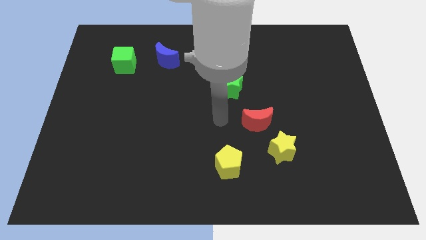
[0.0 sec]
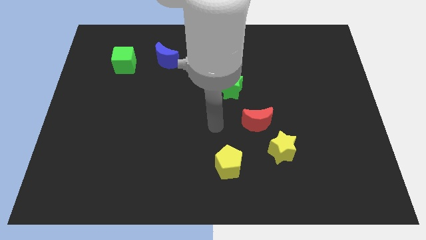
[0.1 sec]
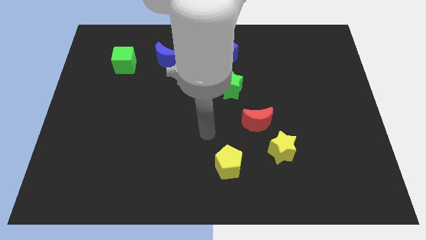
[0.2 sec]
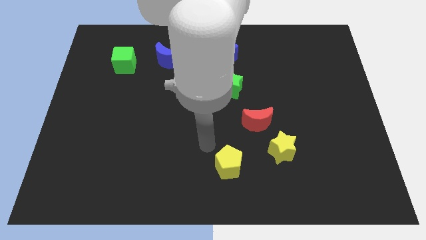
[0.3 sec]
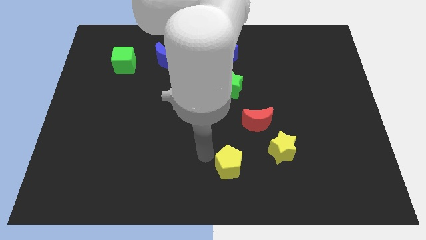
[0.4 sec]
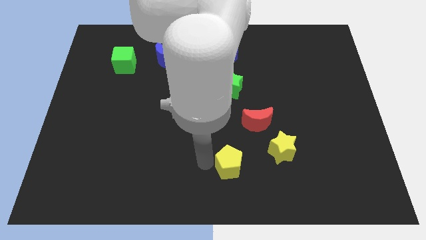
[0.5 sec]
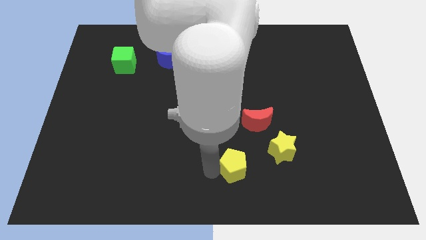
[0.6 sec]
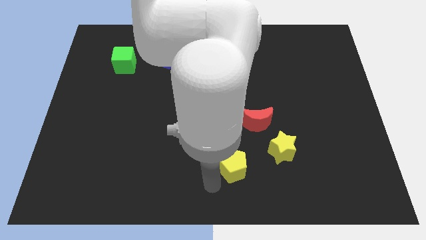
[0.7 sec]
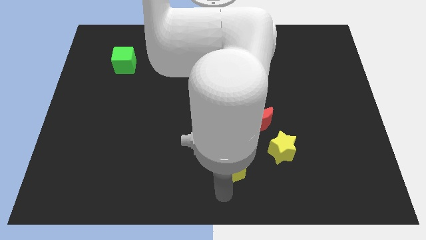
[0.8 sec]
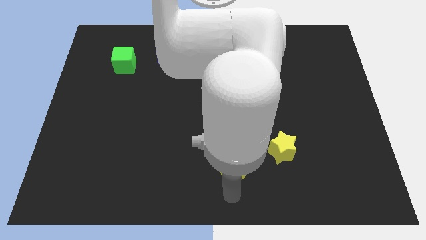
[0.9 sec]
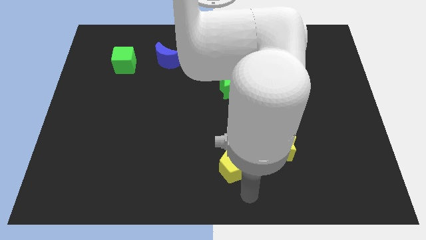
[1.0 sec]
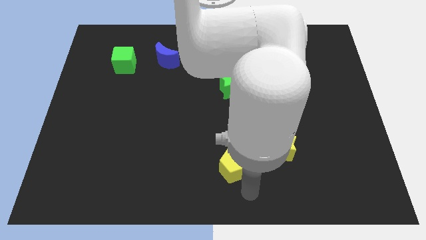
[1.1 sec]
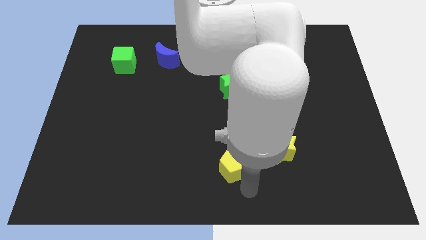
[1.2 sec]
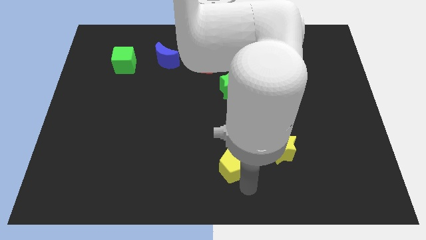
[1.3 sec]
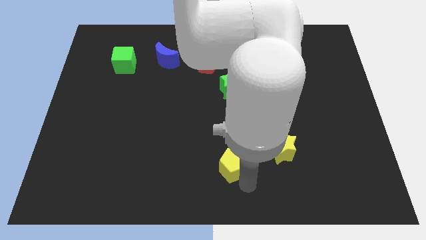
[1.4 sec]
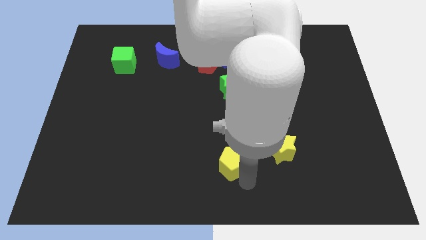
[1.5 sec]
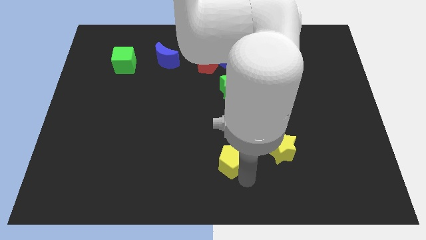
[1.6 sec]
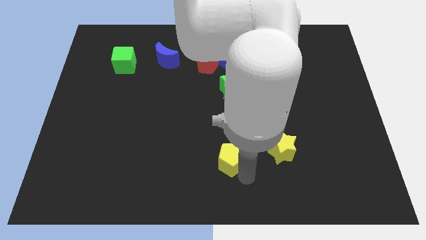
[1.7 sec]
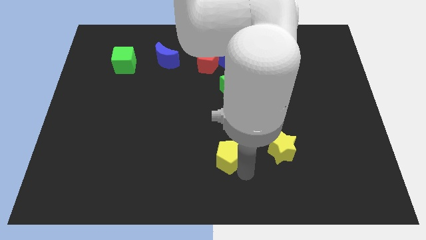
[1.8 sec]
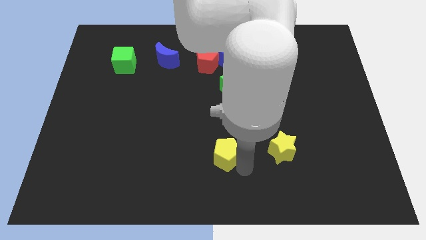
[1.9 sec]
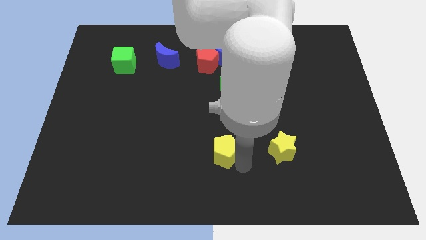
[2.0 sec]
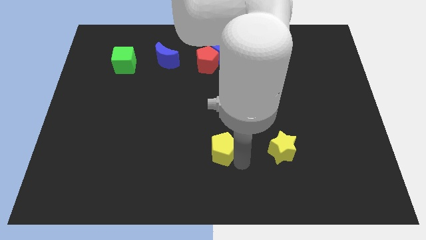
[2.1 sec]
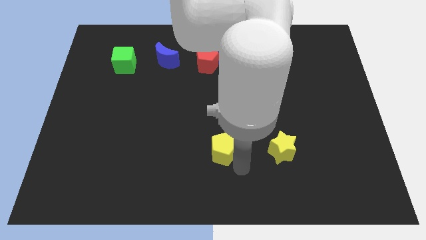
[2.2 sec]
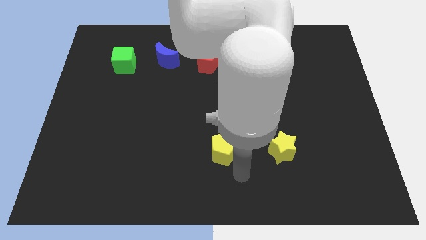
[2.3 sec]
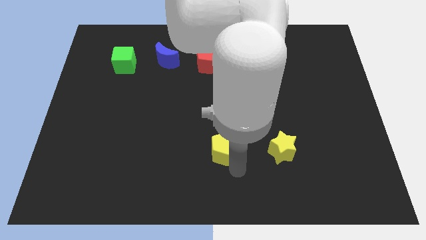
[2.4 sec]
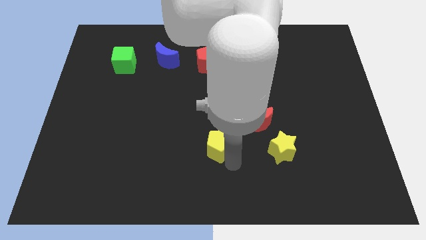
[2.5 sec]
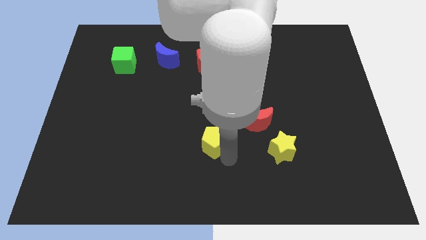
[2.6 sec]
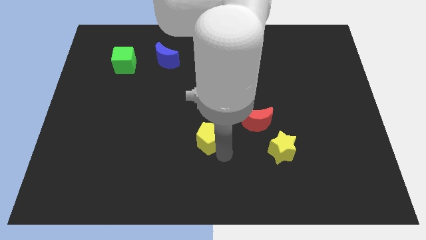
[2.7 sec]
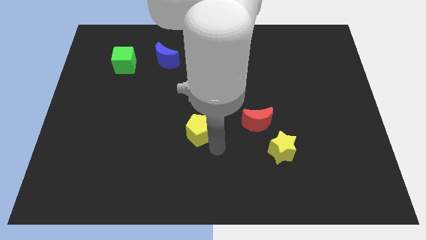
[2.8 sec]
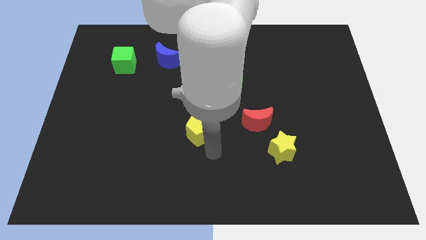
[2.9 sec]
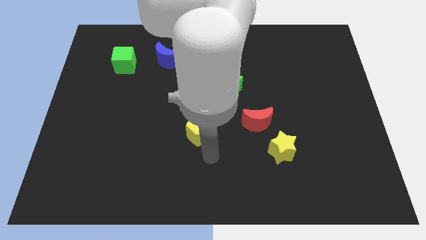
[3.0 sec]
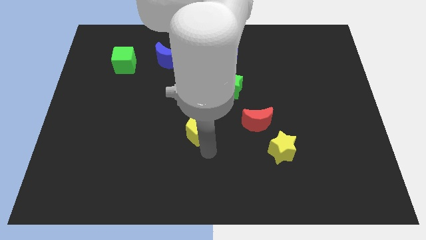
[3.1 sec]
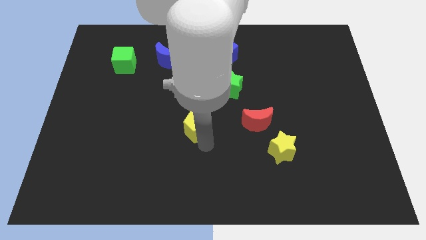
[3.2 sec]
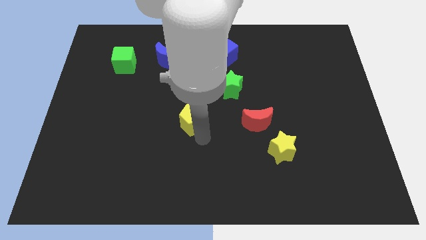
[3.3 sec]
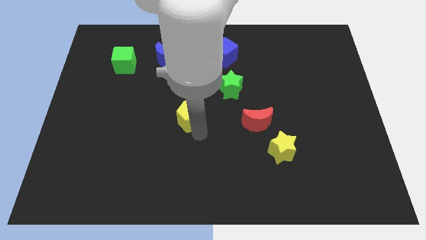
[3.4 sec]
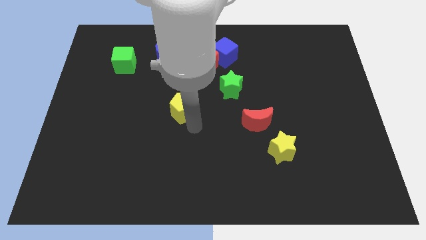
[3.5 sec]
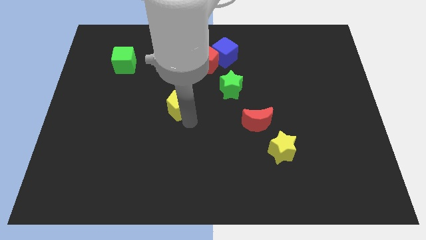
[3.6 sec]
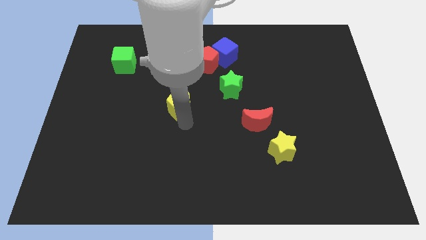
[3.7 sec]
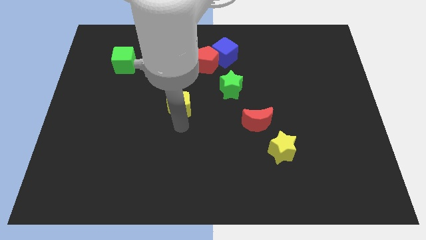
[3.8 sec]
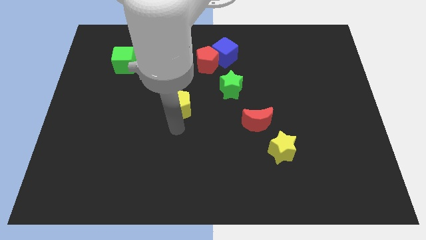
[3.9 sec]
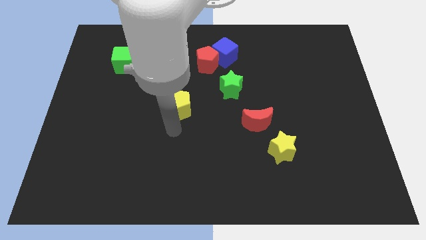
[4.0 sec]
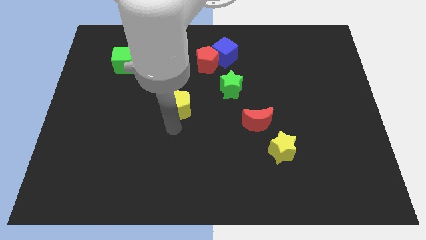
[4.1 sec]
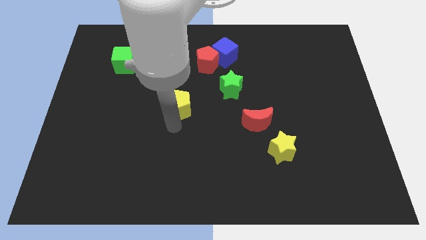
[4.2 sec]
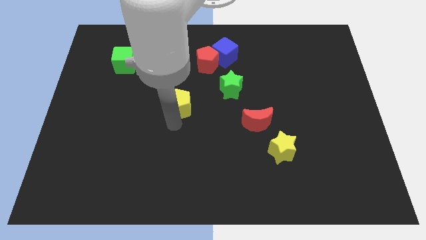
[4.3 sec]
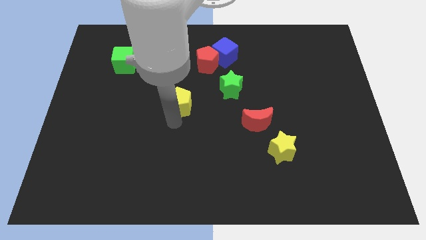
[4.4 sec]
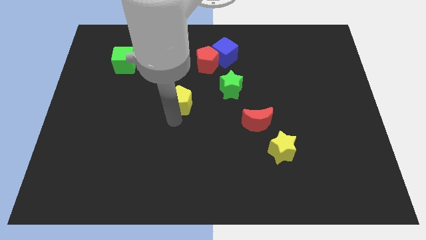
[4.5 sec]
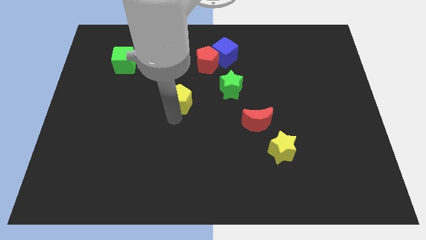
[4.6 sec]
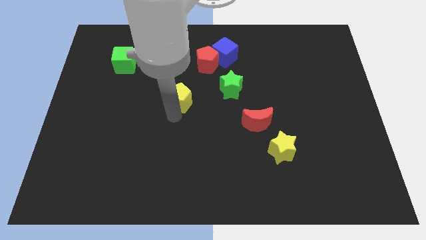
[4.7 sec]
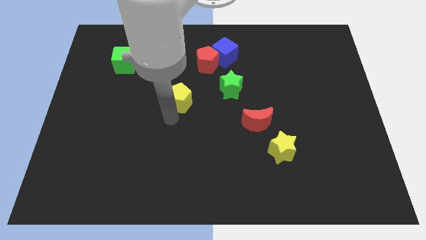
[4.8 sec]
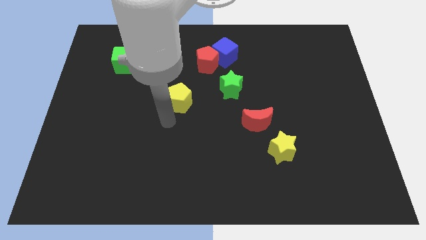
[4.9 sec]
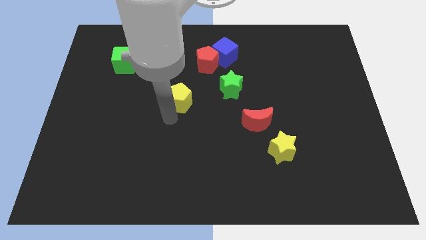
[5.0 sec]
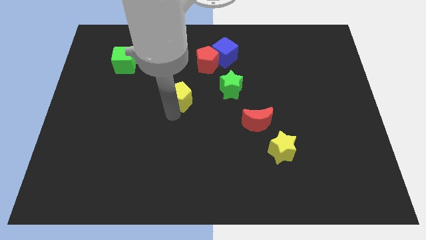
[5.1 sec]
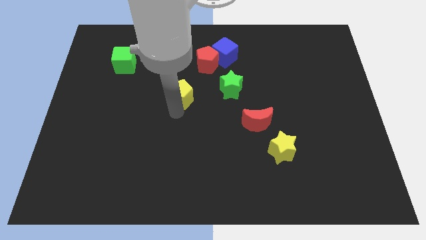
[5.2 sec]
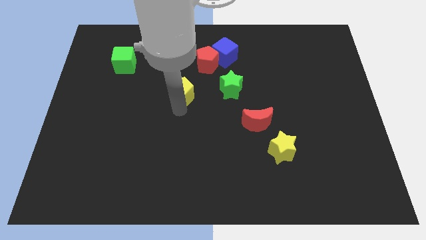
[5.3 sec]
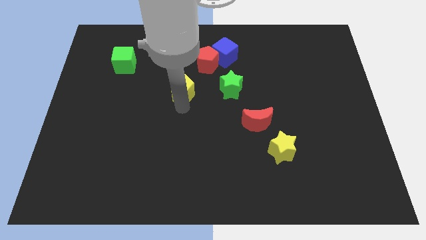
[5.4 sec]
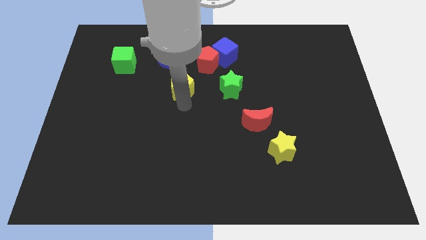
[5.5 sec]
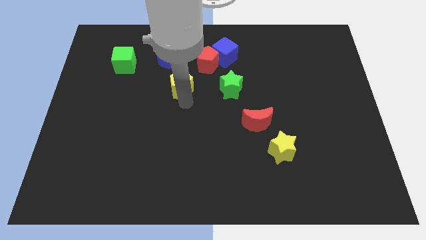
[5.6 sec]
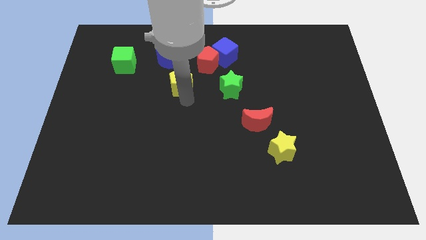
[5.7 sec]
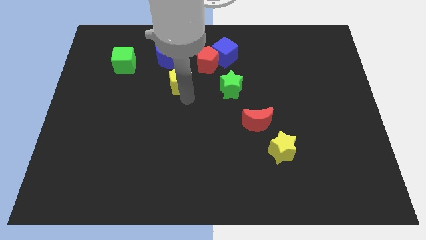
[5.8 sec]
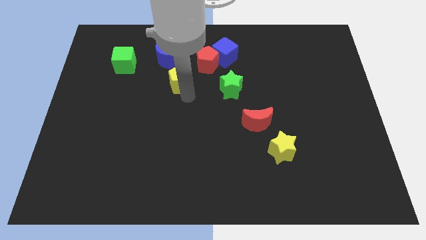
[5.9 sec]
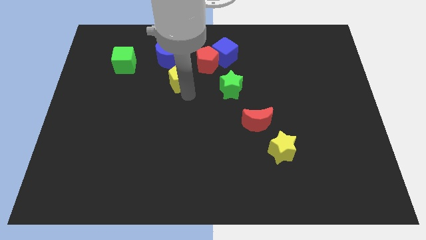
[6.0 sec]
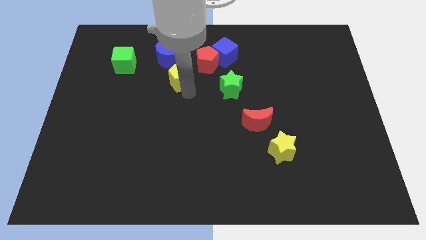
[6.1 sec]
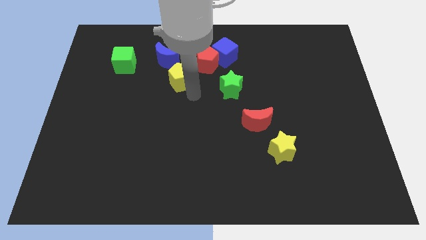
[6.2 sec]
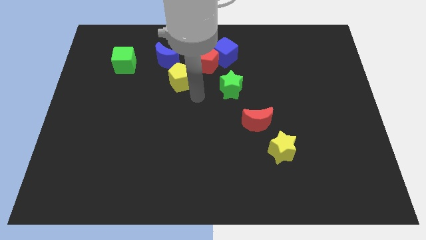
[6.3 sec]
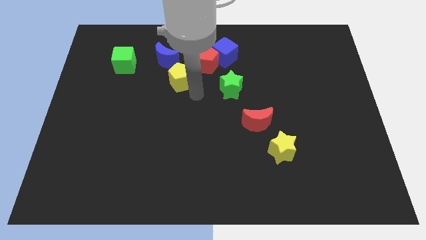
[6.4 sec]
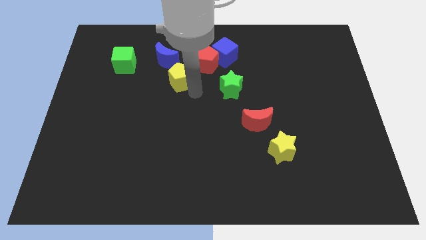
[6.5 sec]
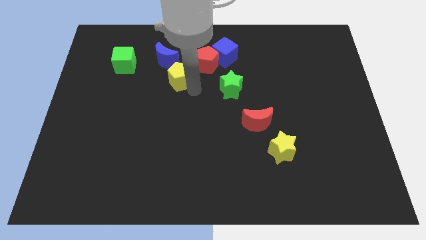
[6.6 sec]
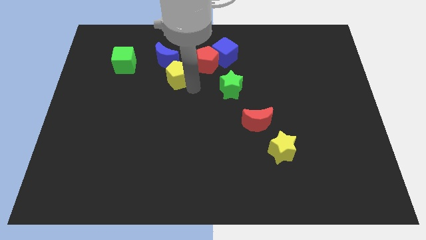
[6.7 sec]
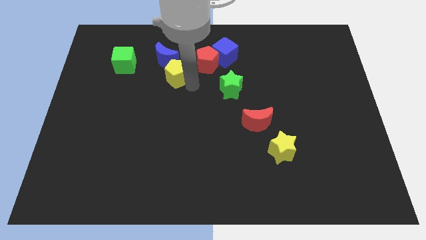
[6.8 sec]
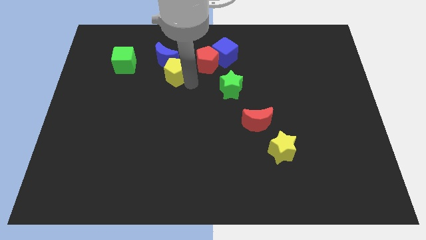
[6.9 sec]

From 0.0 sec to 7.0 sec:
slide the yellow pentagon just right of the green cube
